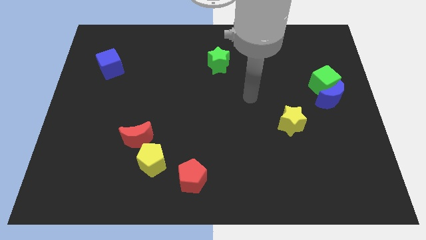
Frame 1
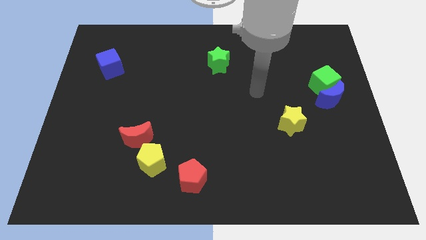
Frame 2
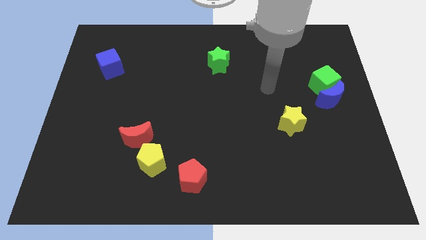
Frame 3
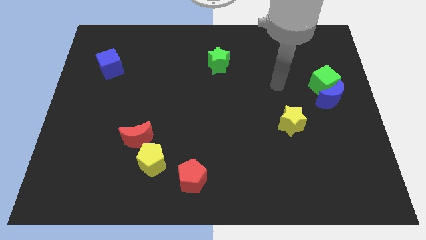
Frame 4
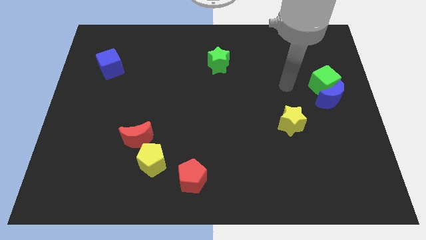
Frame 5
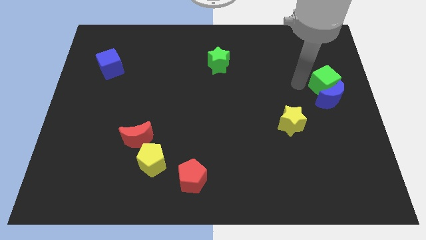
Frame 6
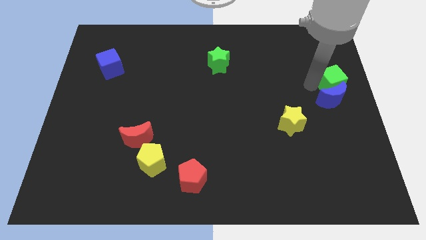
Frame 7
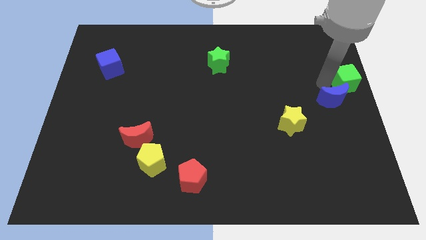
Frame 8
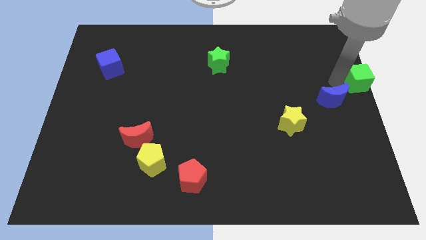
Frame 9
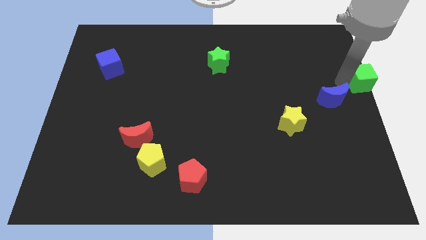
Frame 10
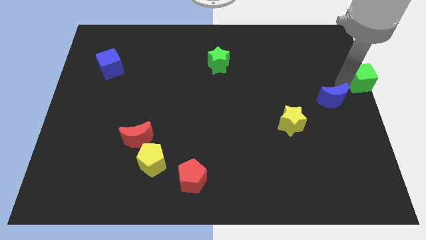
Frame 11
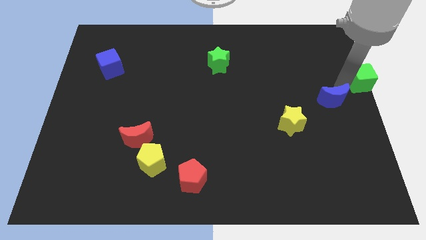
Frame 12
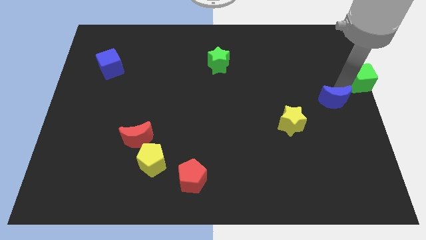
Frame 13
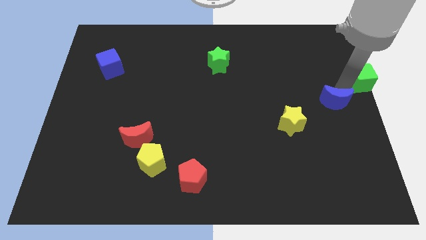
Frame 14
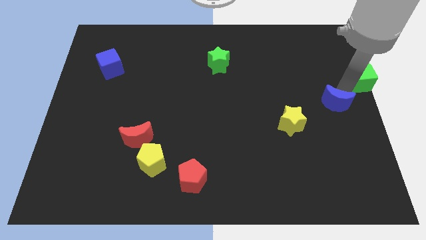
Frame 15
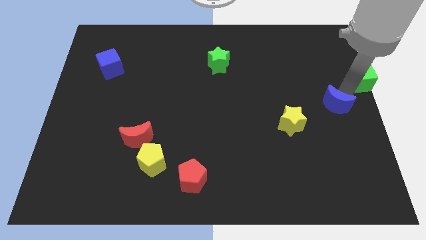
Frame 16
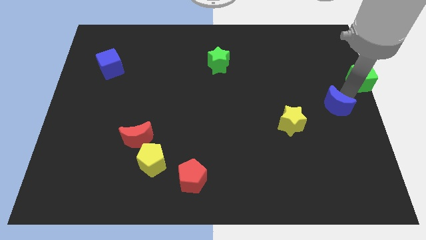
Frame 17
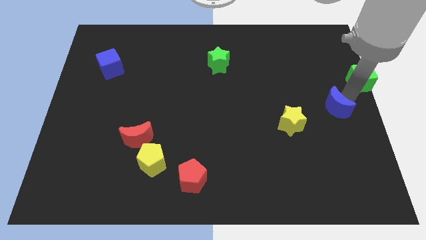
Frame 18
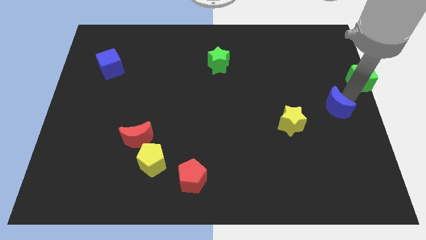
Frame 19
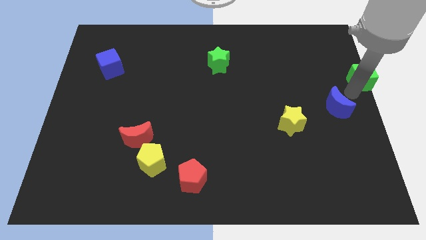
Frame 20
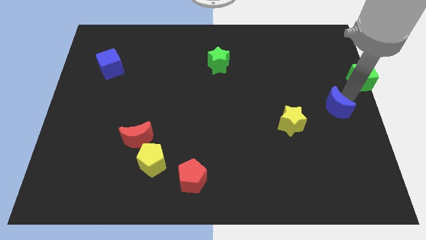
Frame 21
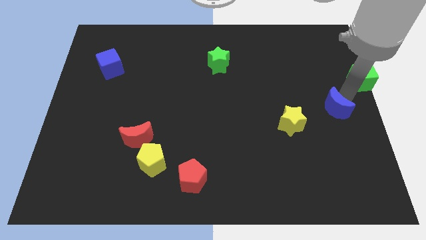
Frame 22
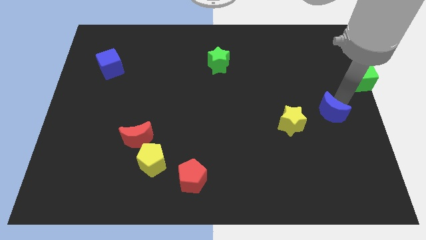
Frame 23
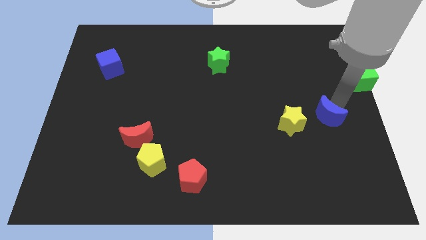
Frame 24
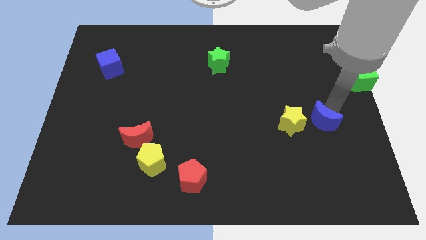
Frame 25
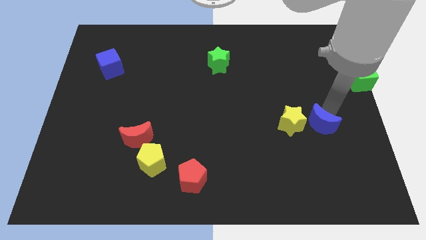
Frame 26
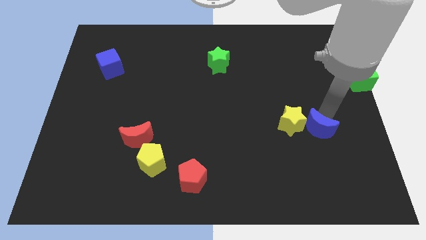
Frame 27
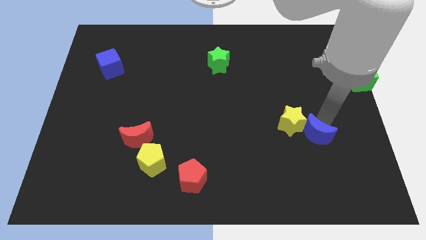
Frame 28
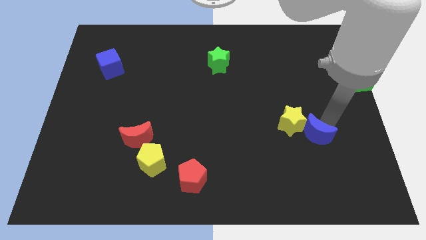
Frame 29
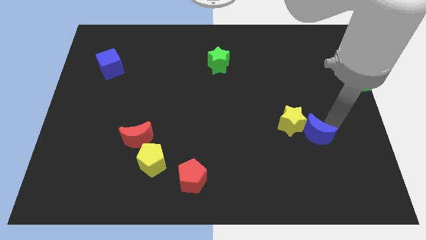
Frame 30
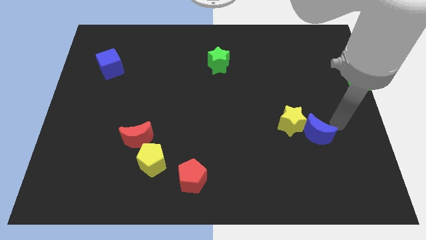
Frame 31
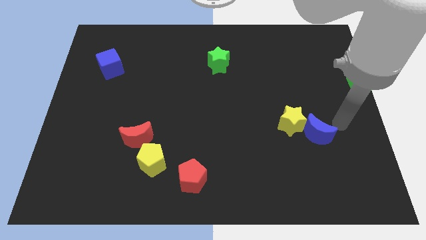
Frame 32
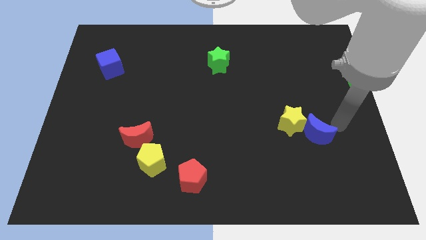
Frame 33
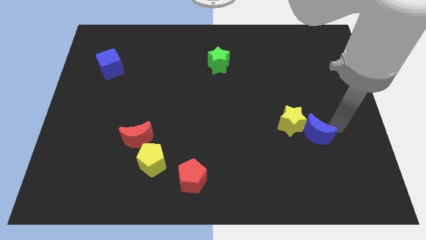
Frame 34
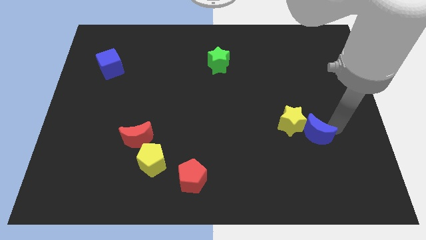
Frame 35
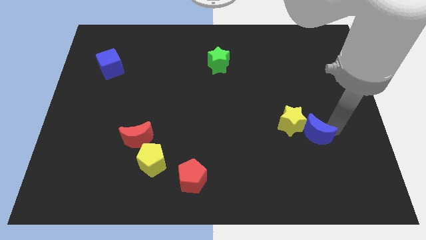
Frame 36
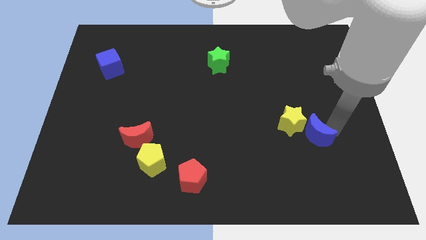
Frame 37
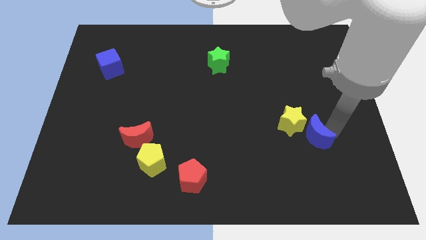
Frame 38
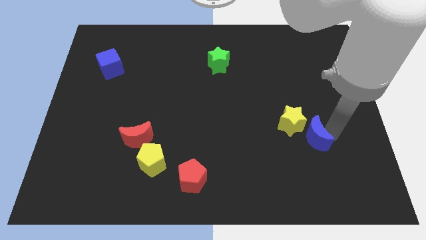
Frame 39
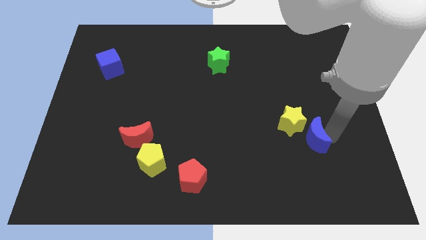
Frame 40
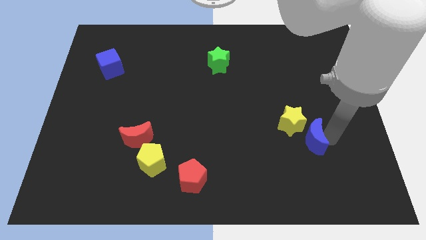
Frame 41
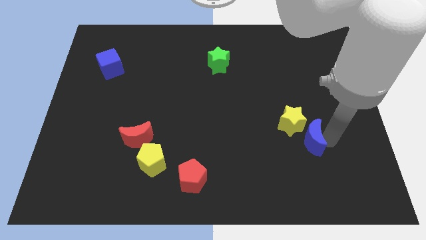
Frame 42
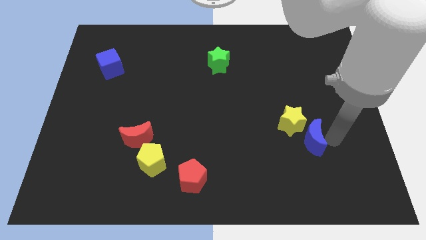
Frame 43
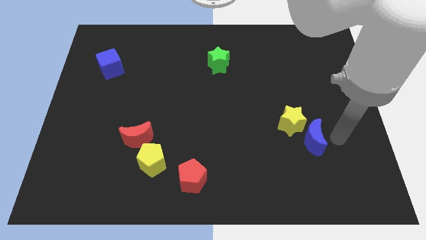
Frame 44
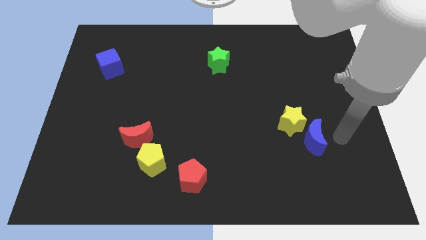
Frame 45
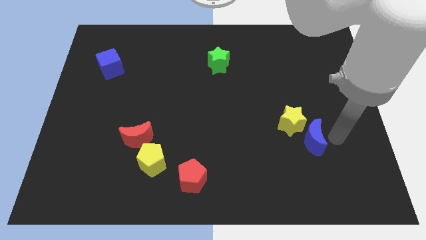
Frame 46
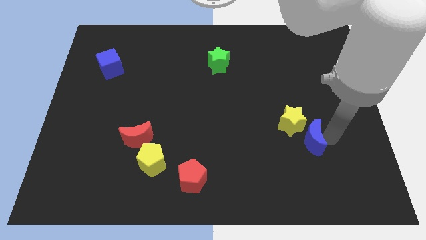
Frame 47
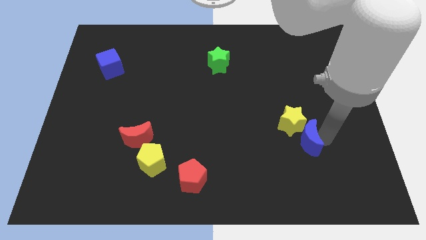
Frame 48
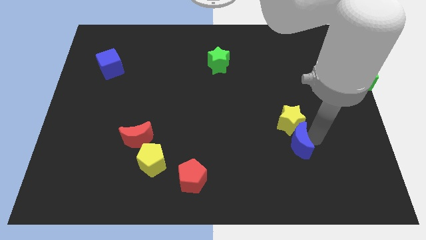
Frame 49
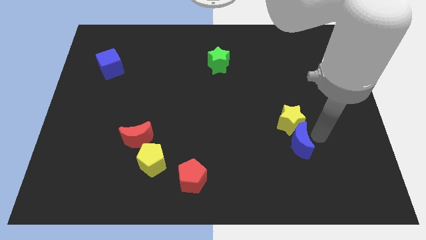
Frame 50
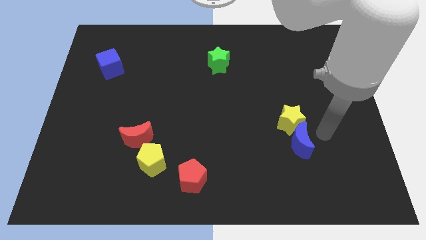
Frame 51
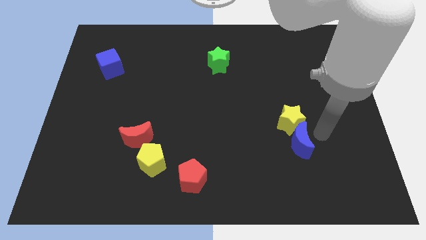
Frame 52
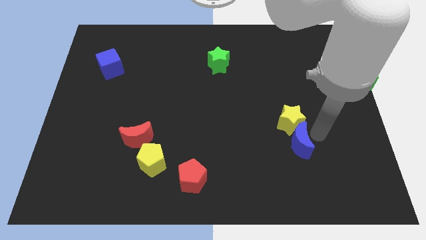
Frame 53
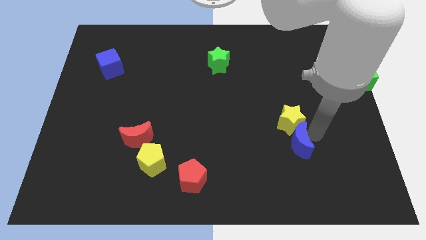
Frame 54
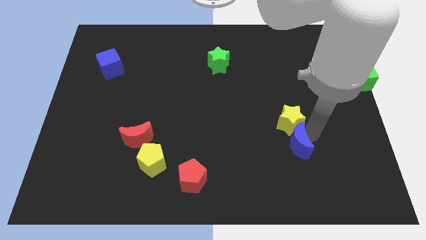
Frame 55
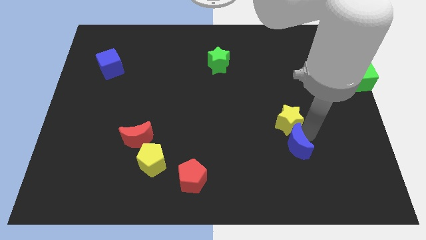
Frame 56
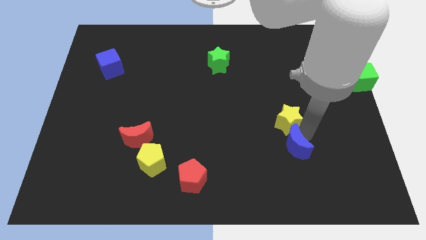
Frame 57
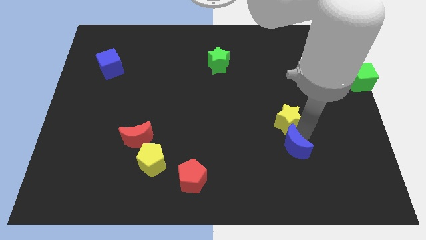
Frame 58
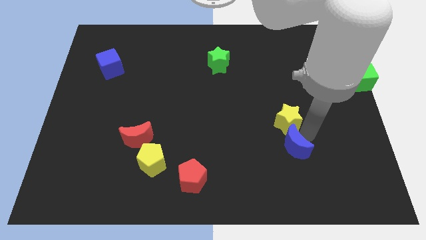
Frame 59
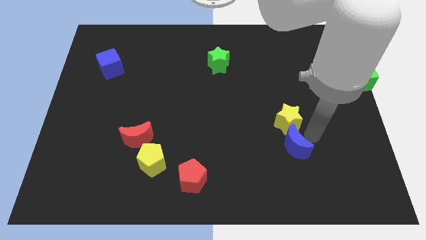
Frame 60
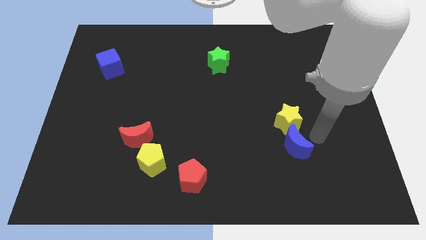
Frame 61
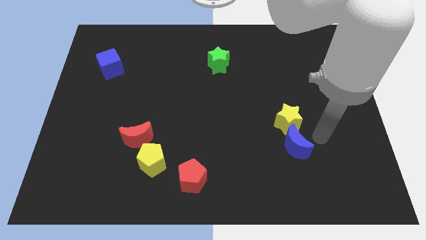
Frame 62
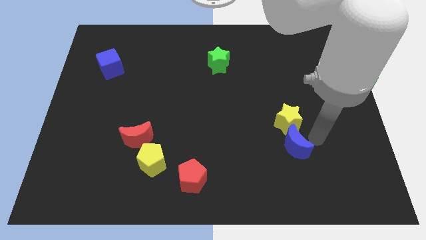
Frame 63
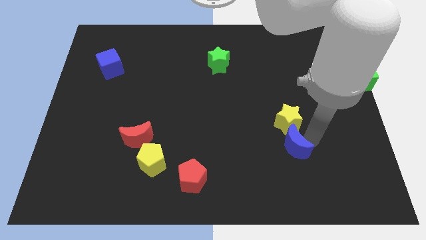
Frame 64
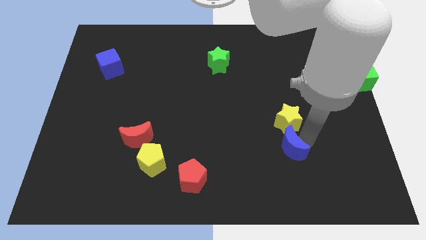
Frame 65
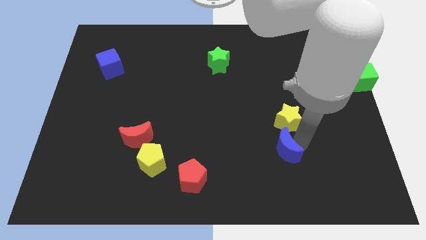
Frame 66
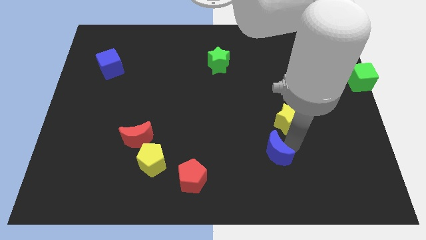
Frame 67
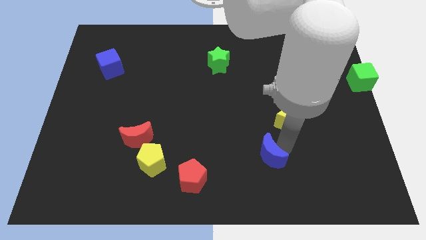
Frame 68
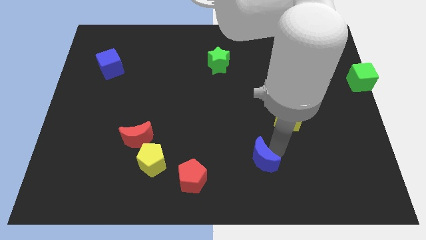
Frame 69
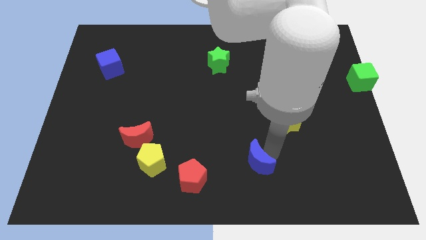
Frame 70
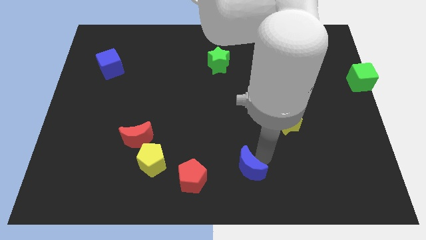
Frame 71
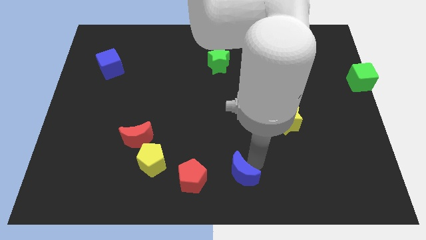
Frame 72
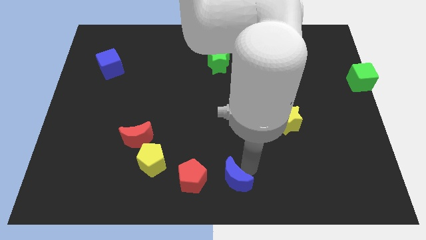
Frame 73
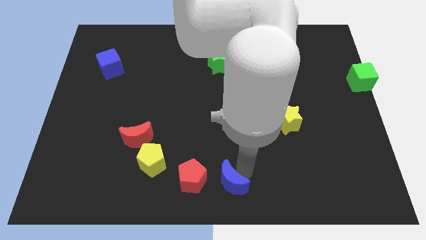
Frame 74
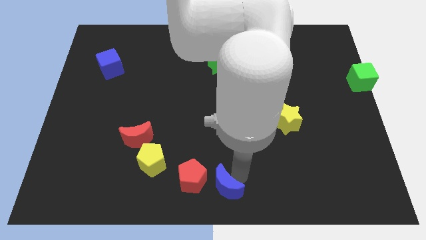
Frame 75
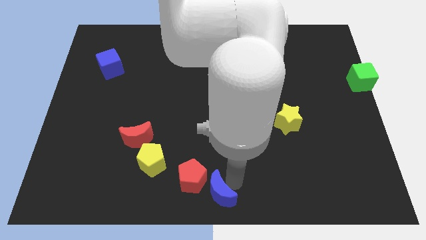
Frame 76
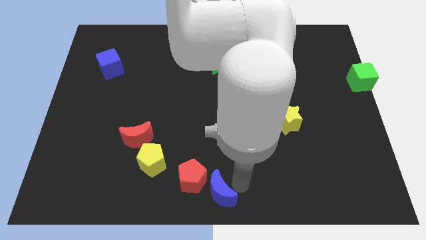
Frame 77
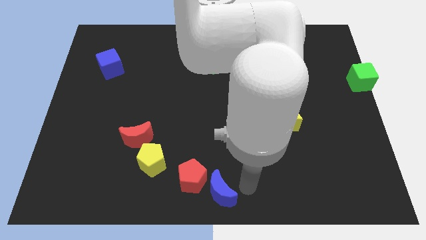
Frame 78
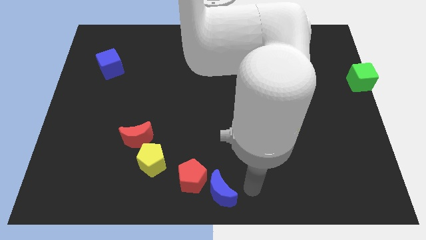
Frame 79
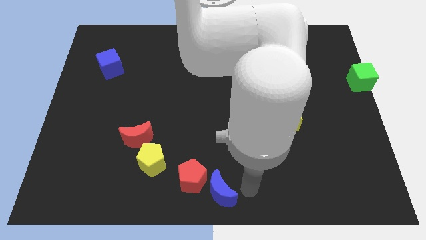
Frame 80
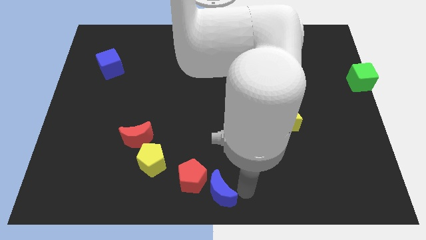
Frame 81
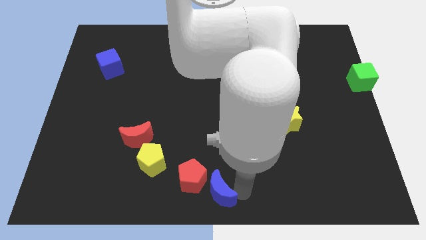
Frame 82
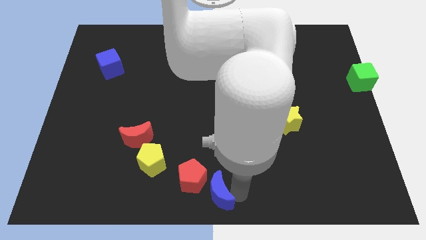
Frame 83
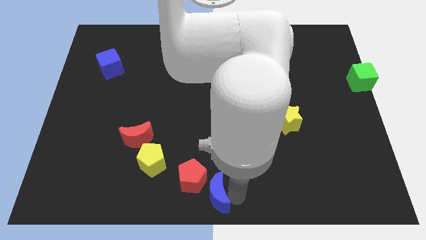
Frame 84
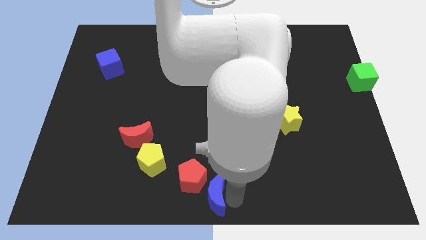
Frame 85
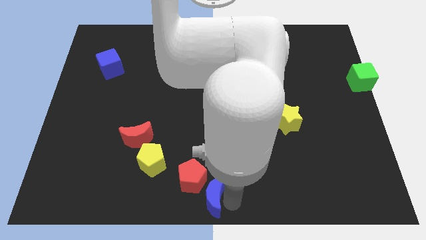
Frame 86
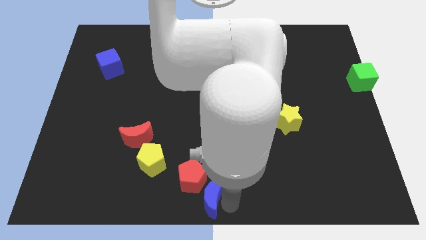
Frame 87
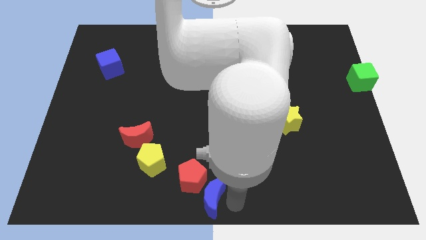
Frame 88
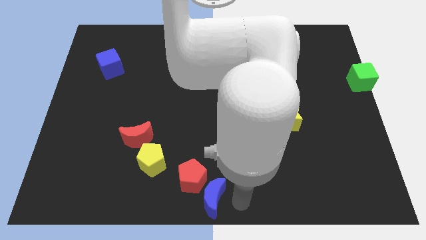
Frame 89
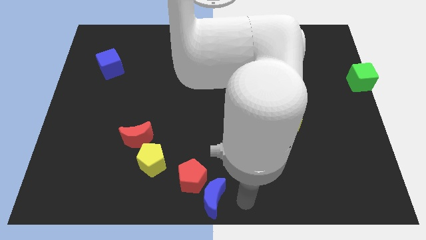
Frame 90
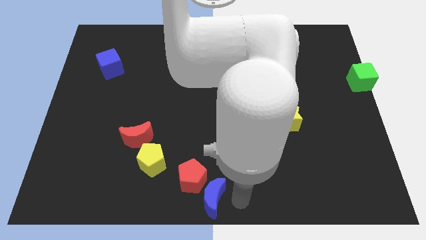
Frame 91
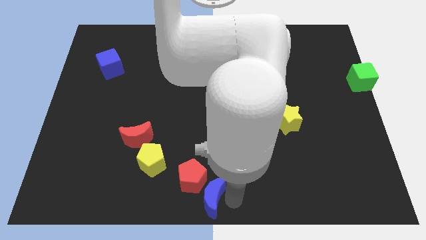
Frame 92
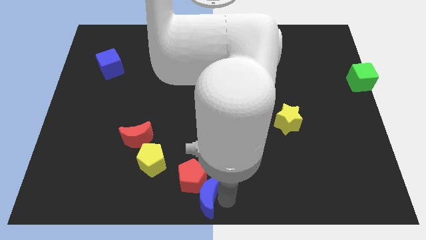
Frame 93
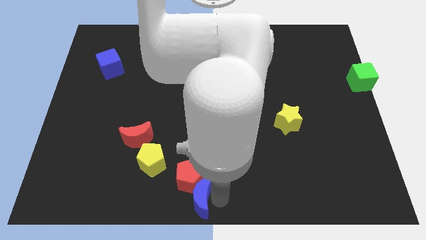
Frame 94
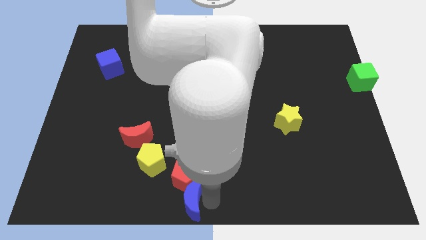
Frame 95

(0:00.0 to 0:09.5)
push the blue moon to the bottom right of the yellow pentagon
